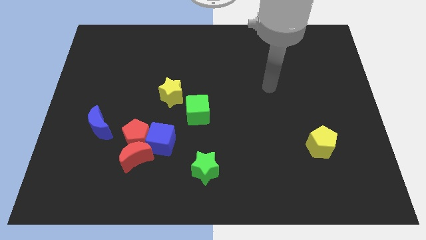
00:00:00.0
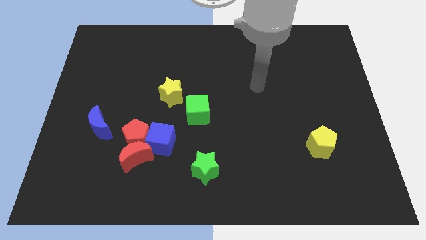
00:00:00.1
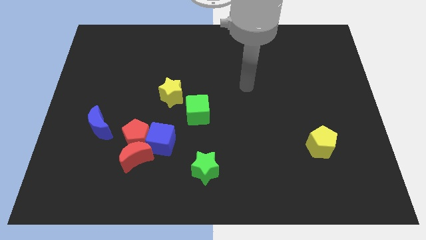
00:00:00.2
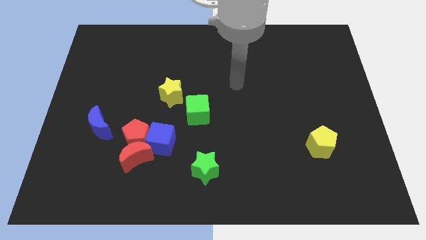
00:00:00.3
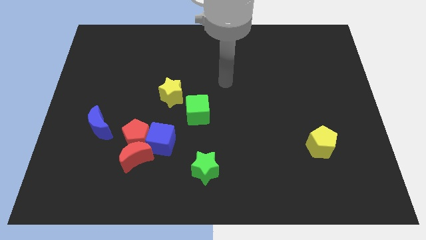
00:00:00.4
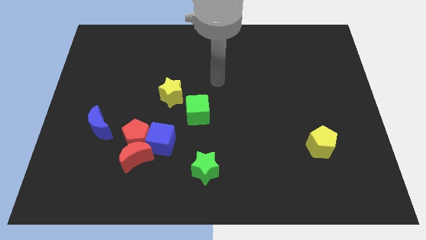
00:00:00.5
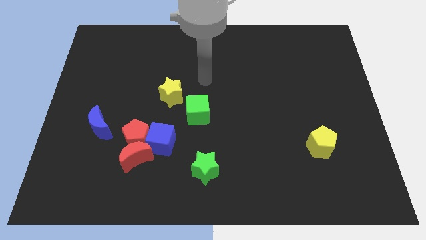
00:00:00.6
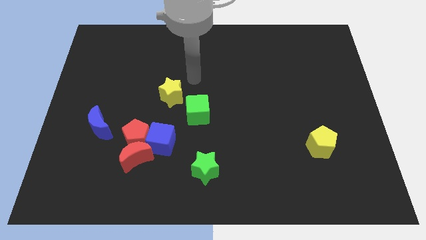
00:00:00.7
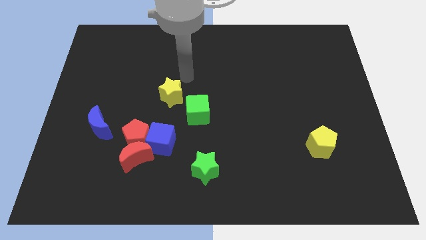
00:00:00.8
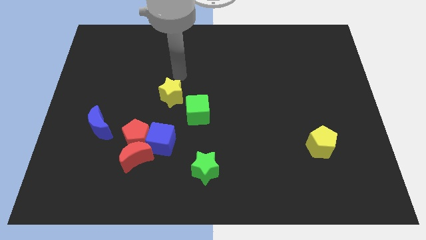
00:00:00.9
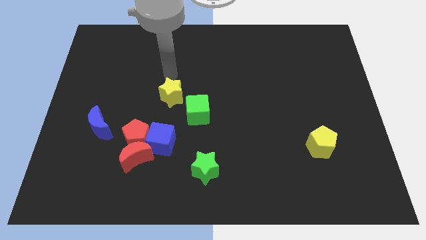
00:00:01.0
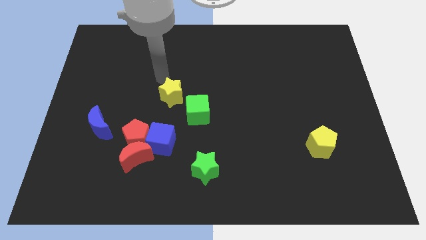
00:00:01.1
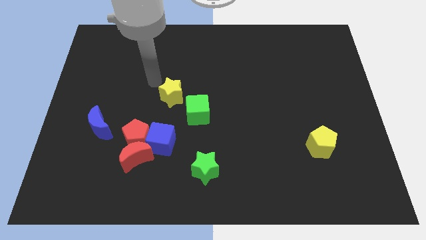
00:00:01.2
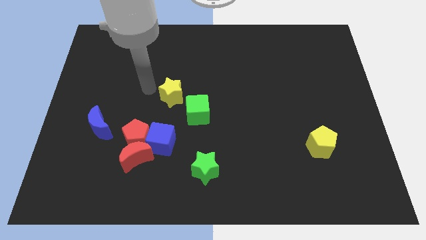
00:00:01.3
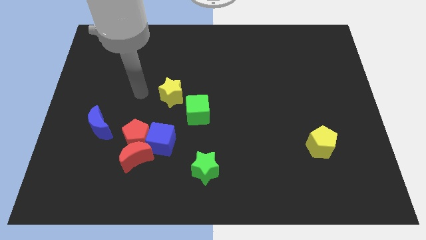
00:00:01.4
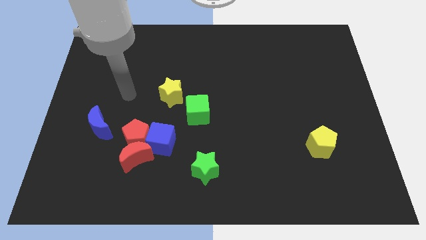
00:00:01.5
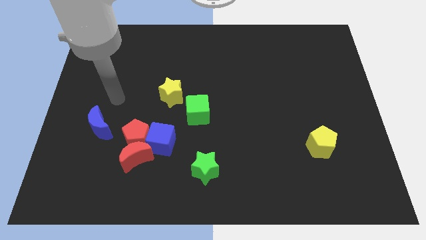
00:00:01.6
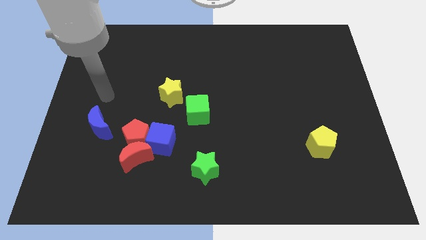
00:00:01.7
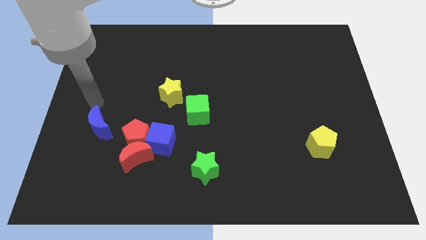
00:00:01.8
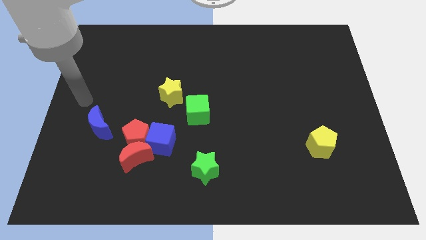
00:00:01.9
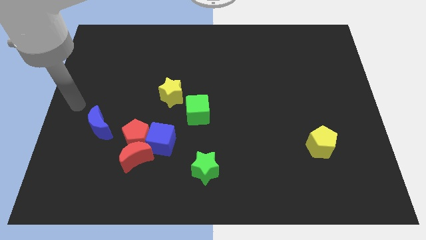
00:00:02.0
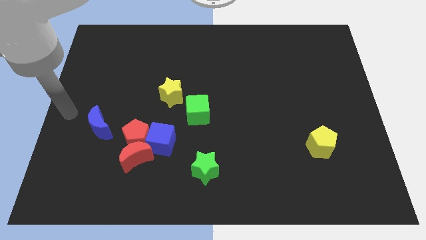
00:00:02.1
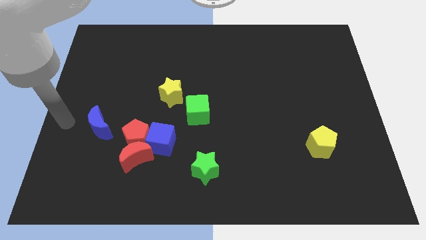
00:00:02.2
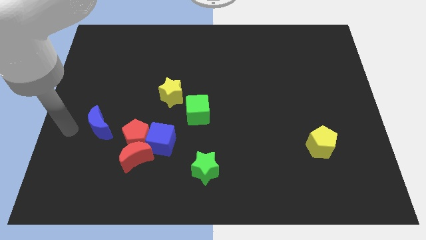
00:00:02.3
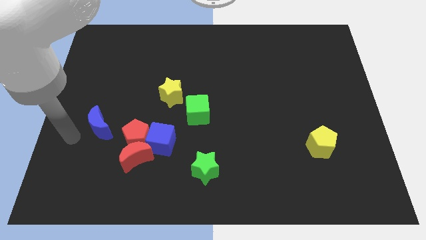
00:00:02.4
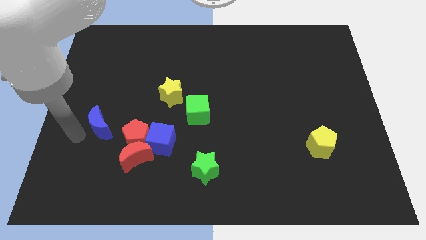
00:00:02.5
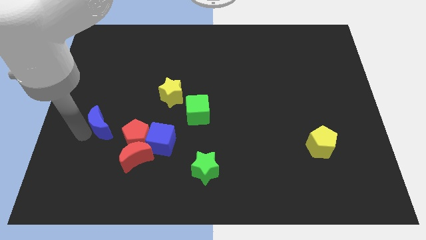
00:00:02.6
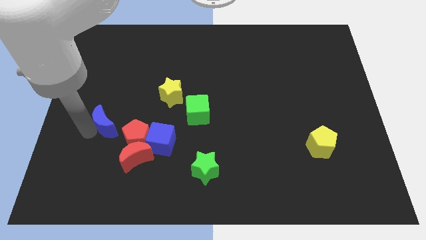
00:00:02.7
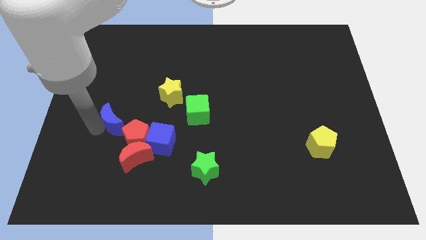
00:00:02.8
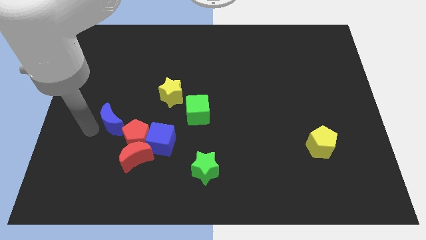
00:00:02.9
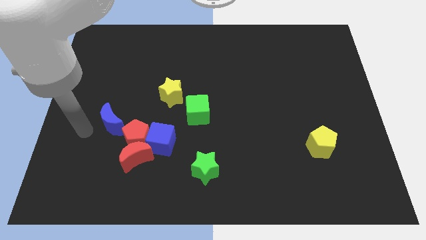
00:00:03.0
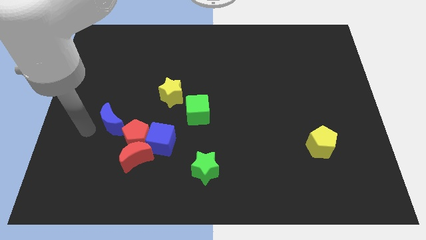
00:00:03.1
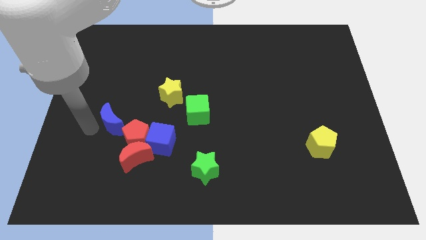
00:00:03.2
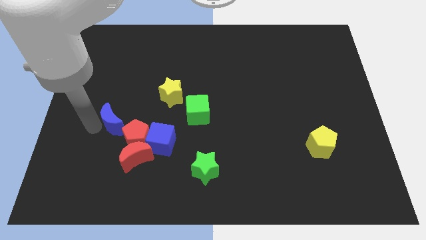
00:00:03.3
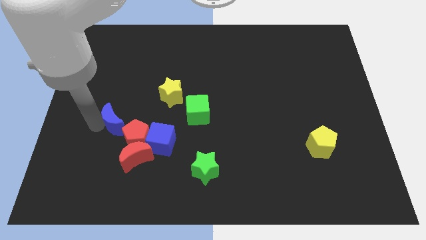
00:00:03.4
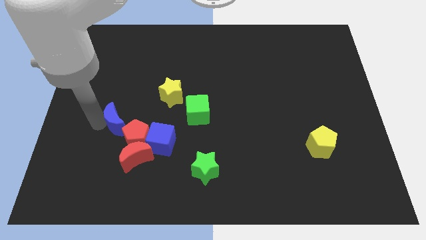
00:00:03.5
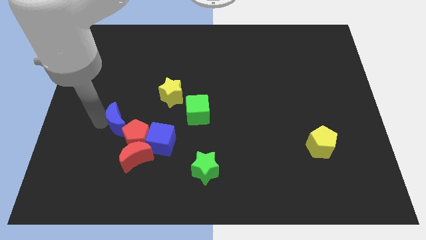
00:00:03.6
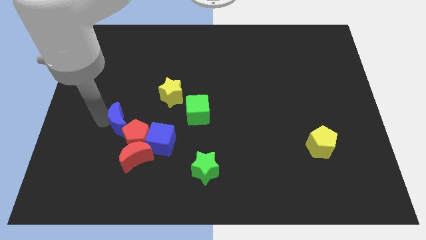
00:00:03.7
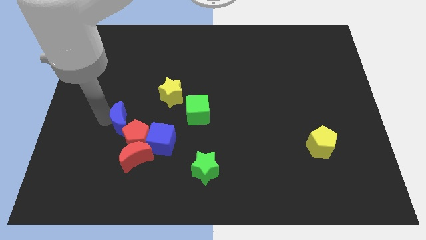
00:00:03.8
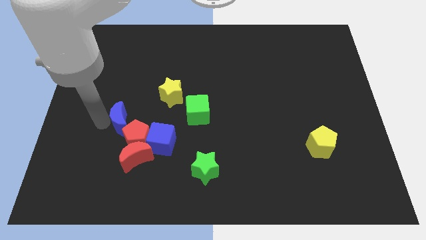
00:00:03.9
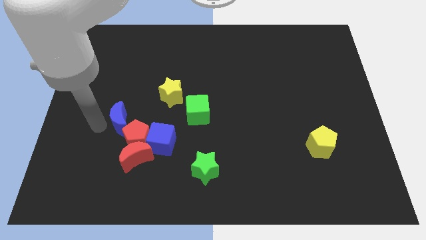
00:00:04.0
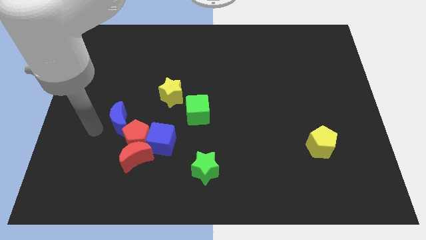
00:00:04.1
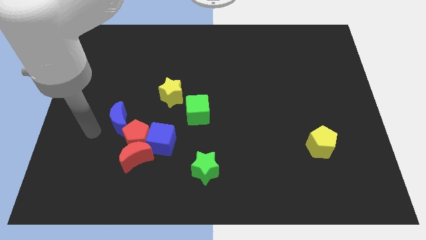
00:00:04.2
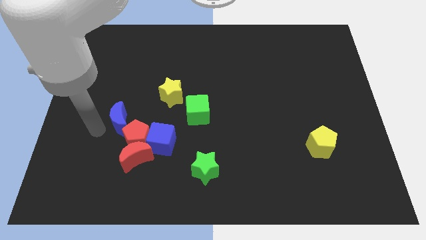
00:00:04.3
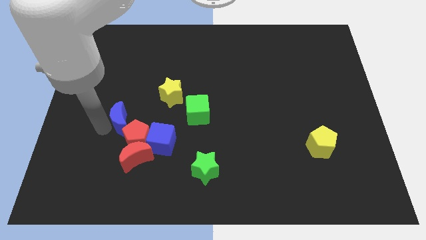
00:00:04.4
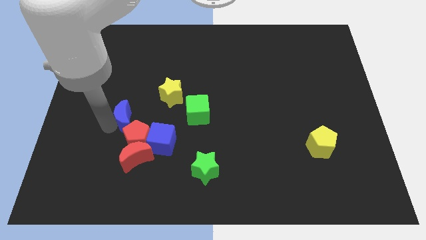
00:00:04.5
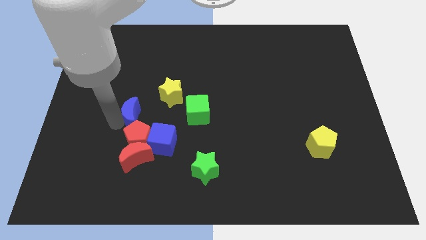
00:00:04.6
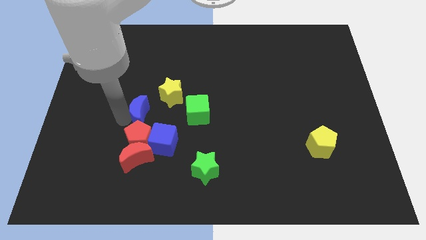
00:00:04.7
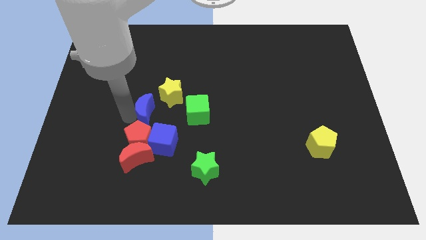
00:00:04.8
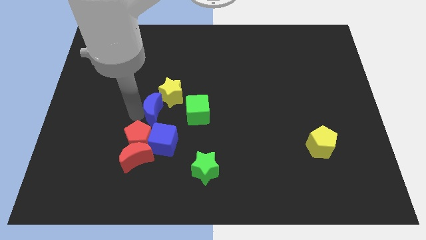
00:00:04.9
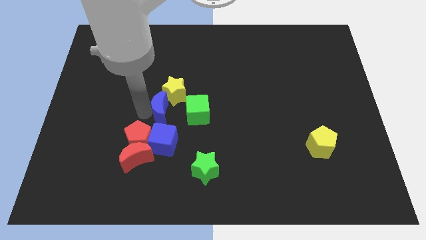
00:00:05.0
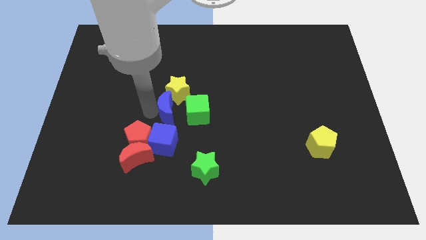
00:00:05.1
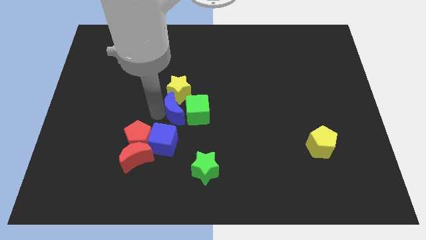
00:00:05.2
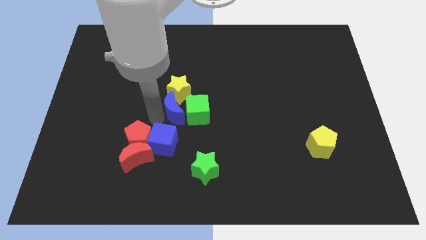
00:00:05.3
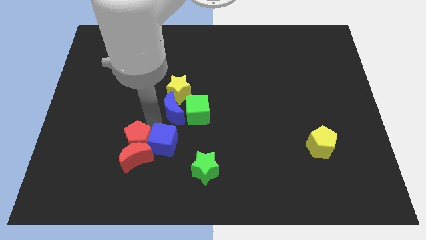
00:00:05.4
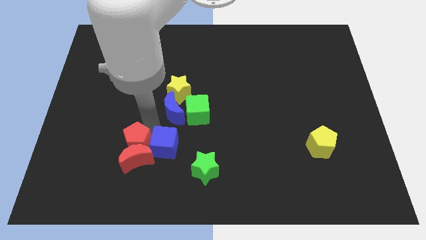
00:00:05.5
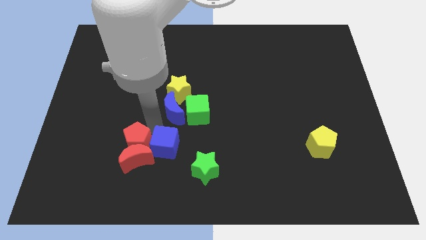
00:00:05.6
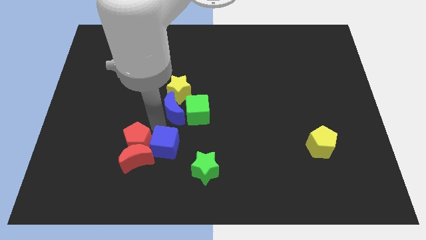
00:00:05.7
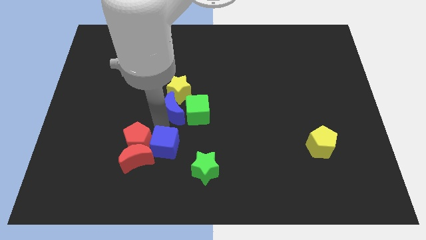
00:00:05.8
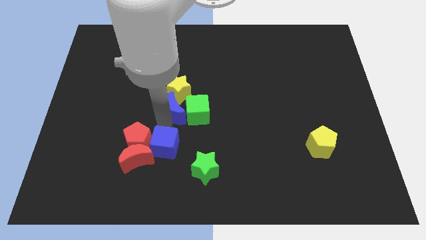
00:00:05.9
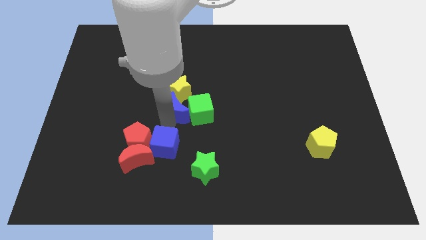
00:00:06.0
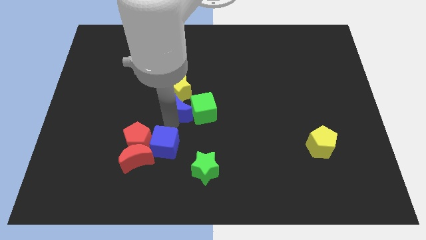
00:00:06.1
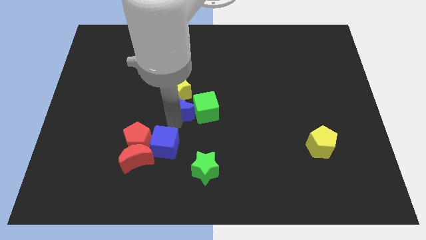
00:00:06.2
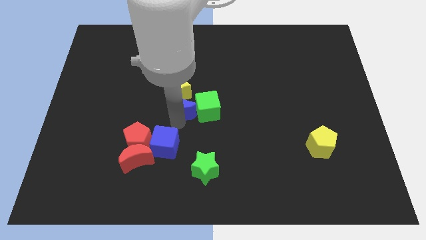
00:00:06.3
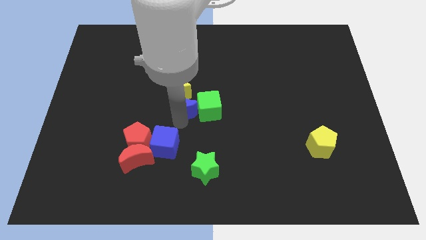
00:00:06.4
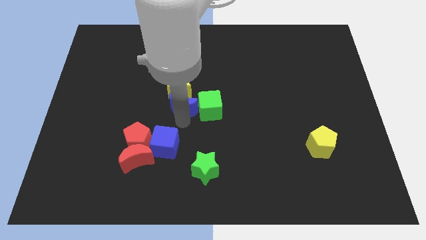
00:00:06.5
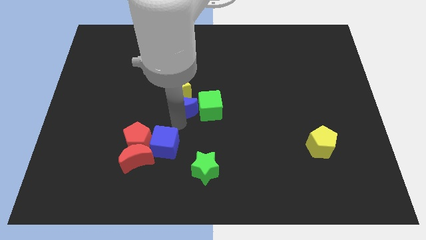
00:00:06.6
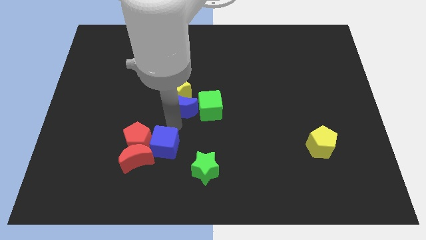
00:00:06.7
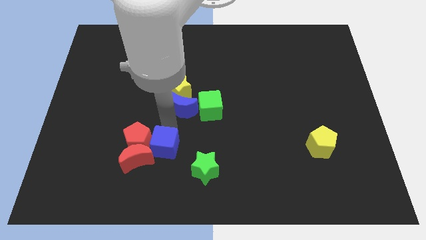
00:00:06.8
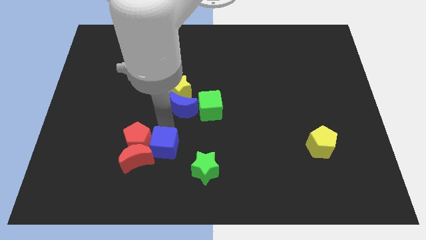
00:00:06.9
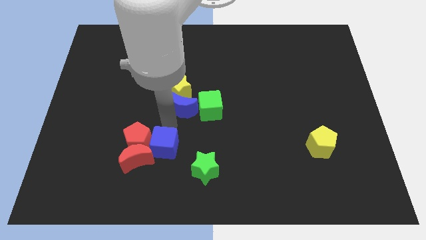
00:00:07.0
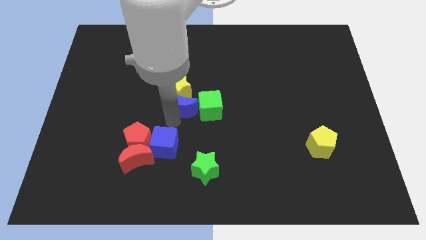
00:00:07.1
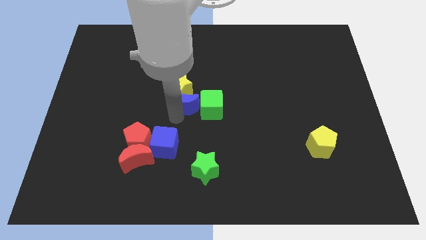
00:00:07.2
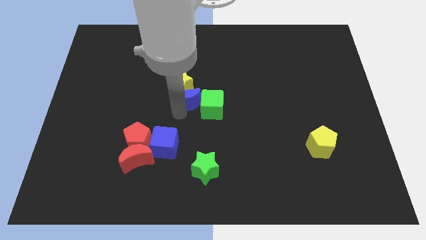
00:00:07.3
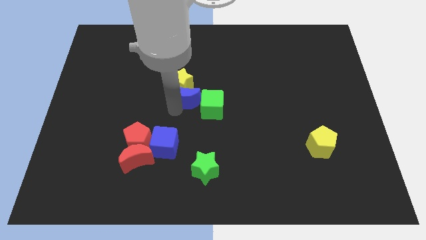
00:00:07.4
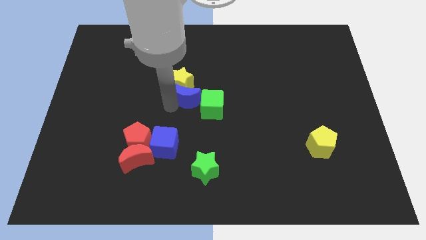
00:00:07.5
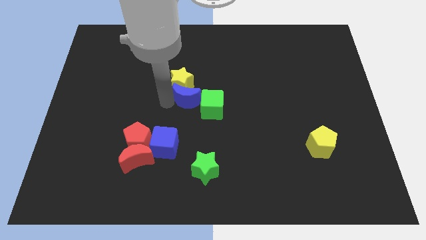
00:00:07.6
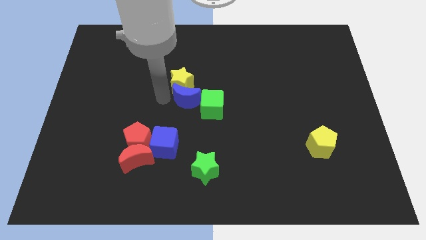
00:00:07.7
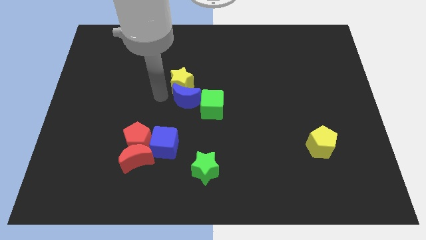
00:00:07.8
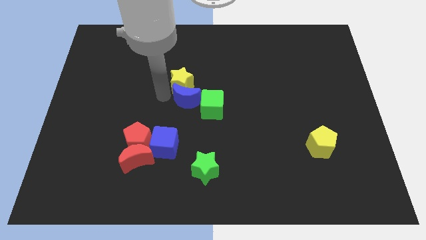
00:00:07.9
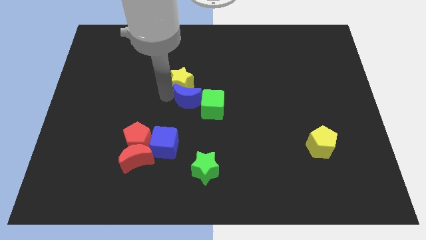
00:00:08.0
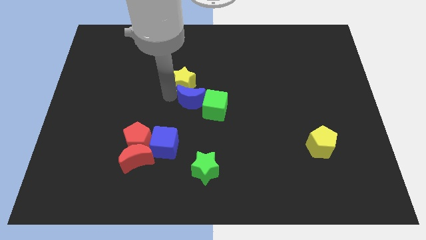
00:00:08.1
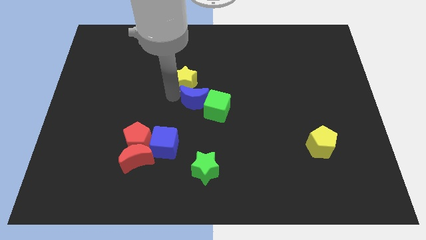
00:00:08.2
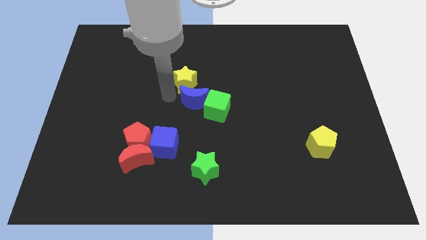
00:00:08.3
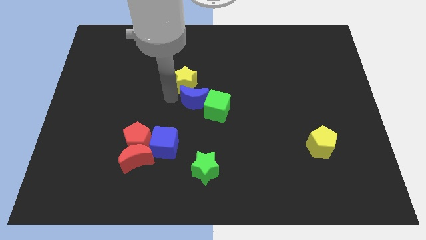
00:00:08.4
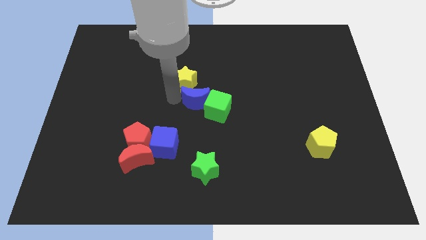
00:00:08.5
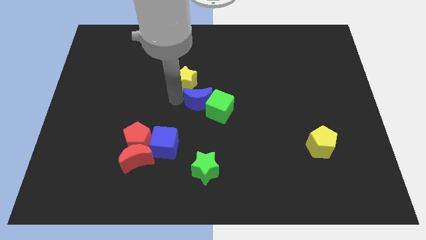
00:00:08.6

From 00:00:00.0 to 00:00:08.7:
move the blue moon to the right

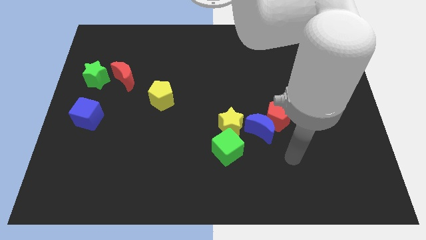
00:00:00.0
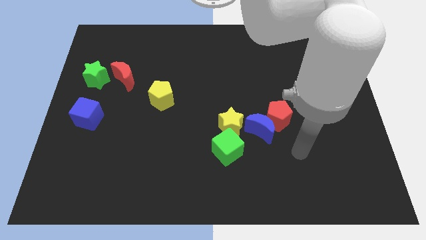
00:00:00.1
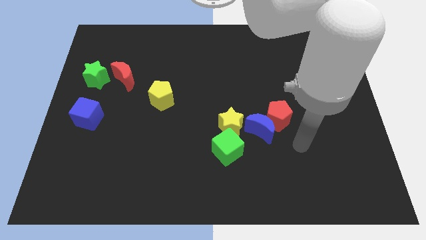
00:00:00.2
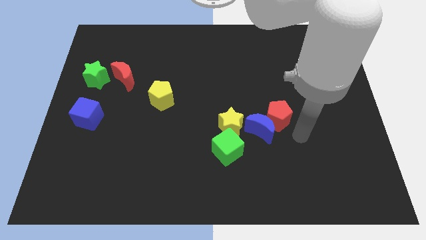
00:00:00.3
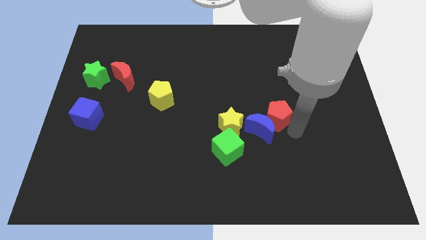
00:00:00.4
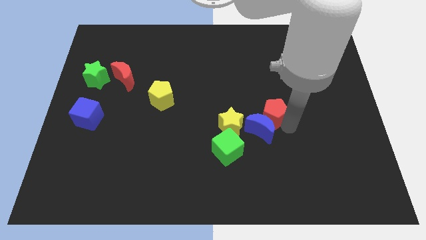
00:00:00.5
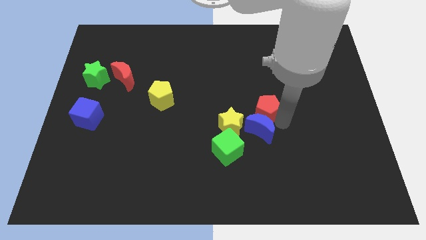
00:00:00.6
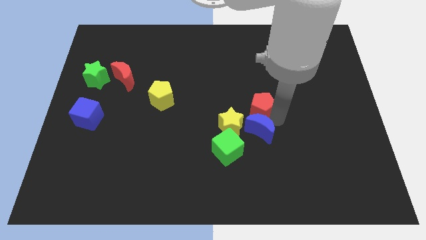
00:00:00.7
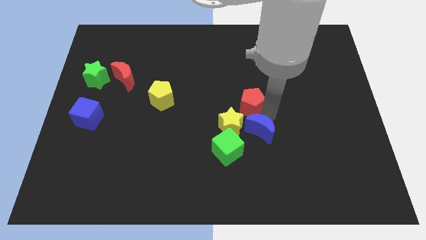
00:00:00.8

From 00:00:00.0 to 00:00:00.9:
slide the red pentagon a little upwards and left diagonally
